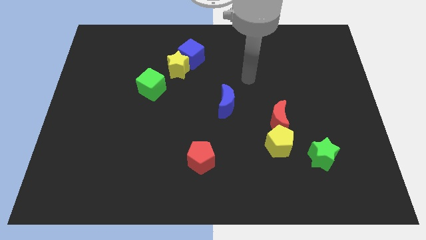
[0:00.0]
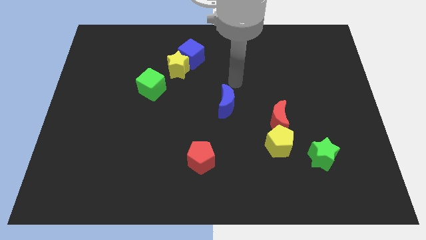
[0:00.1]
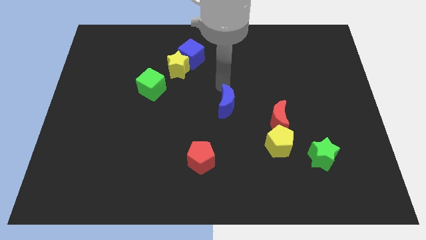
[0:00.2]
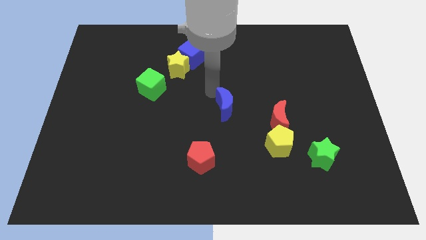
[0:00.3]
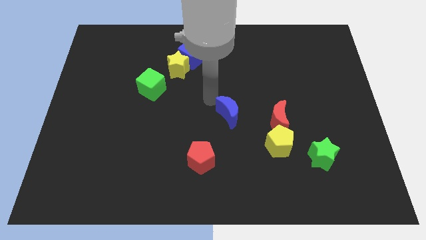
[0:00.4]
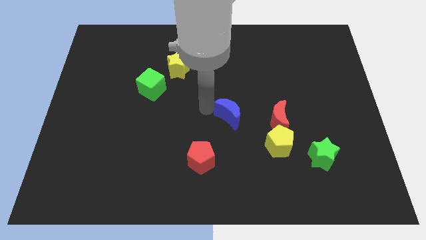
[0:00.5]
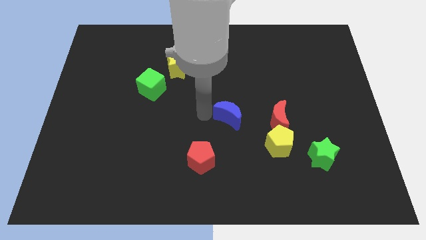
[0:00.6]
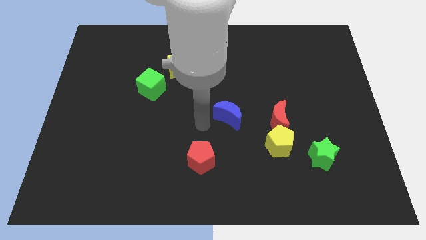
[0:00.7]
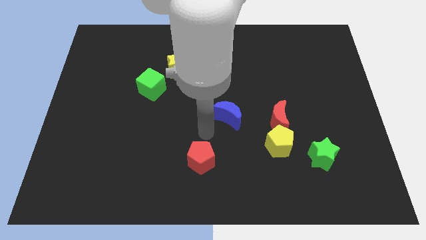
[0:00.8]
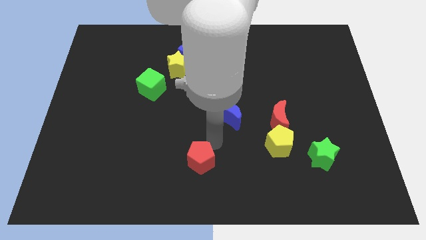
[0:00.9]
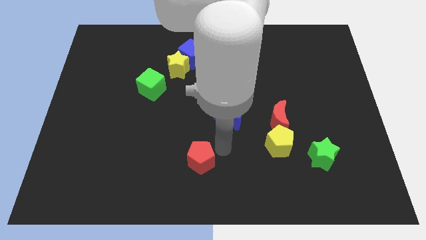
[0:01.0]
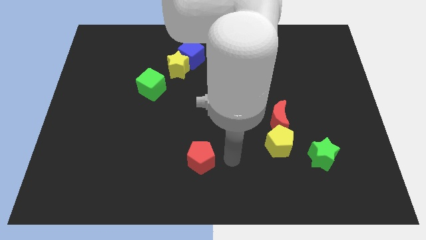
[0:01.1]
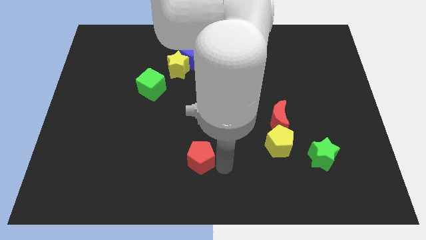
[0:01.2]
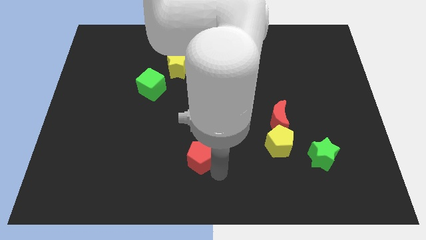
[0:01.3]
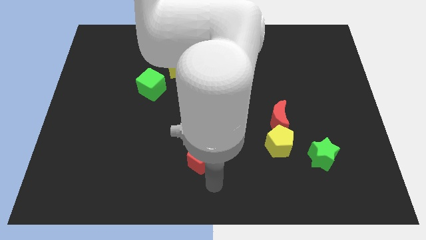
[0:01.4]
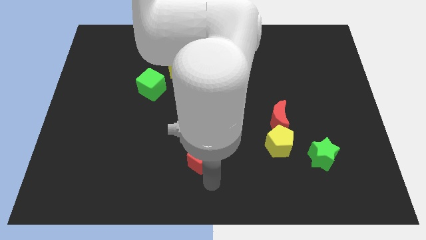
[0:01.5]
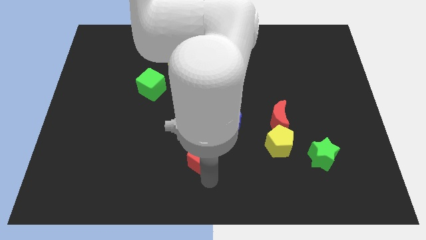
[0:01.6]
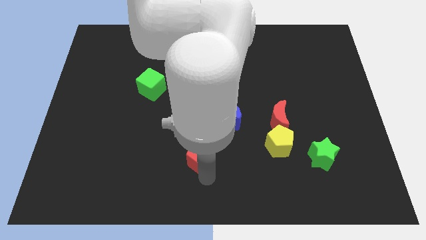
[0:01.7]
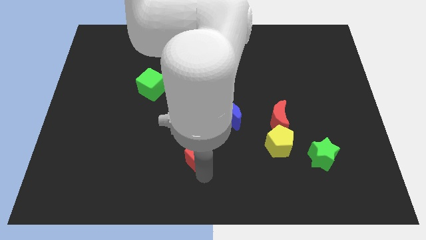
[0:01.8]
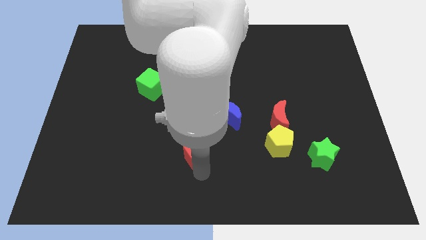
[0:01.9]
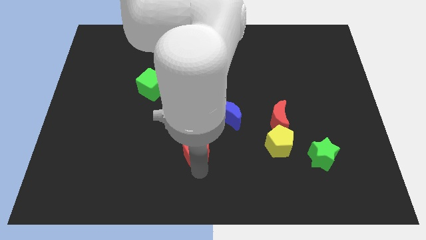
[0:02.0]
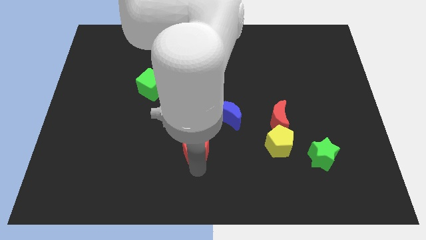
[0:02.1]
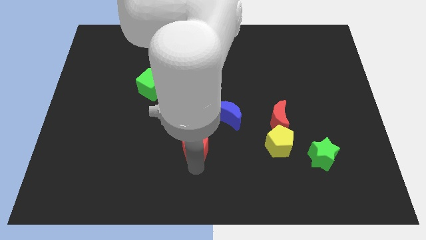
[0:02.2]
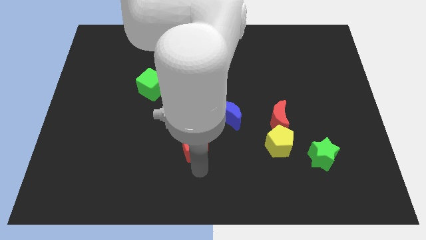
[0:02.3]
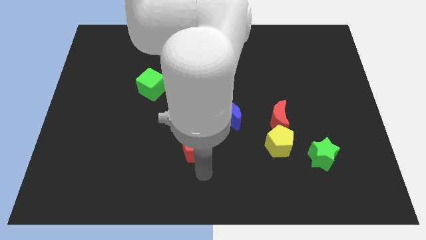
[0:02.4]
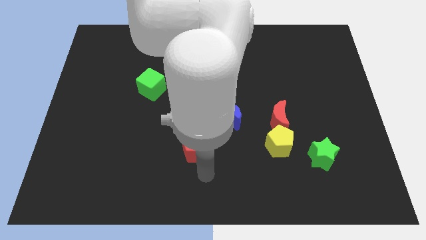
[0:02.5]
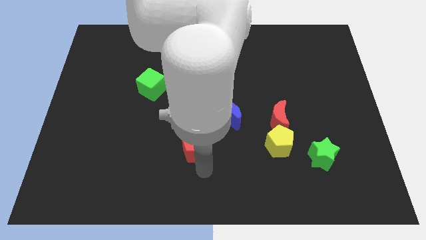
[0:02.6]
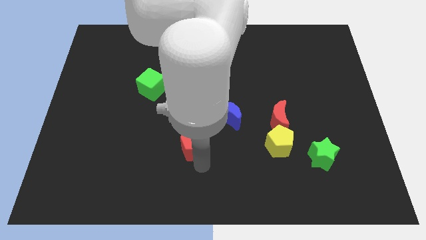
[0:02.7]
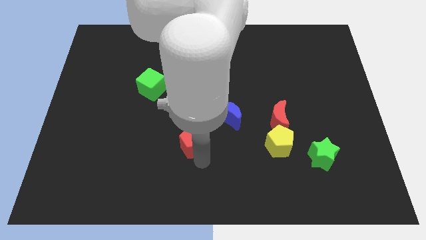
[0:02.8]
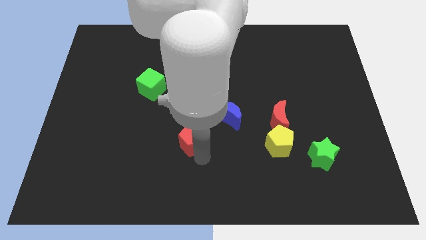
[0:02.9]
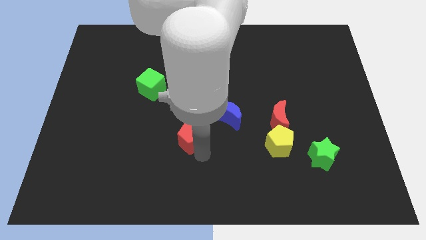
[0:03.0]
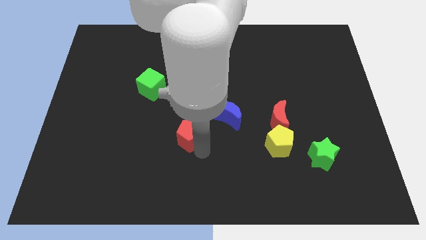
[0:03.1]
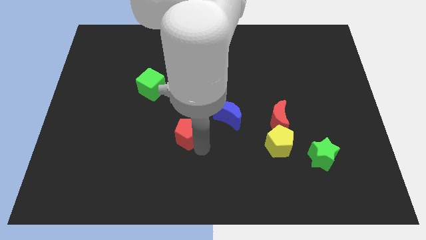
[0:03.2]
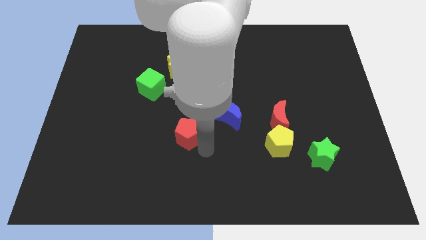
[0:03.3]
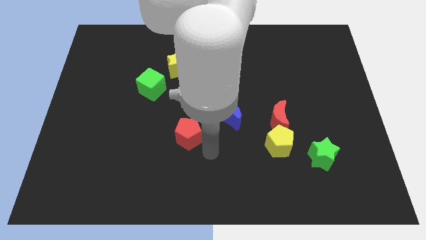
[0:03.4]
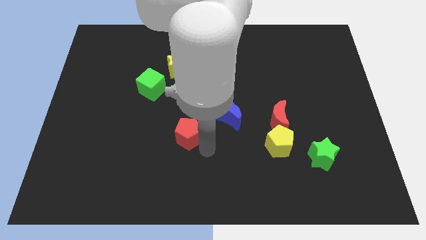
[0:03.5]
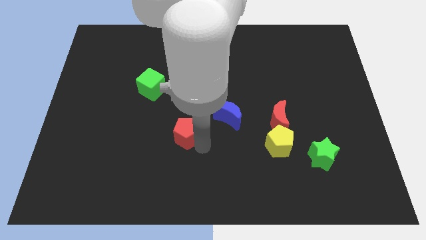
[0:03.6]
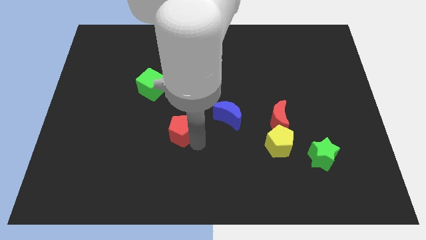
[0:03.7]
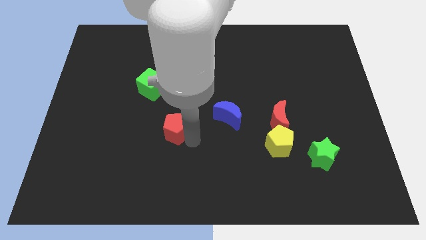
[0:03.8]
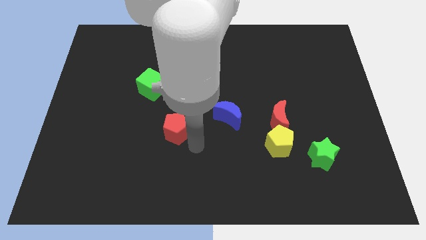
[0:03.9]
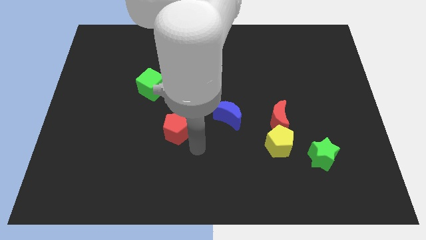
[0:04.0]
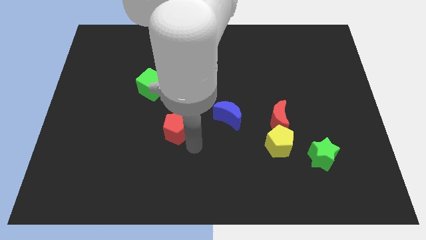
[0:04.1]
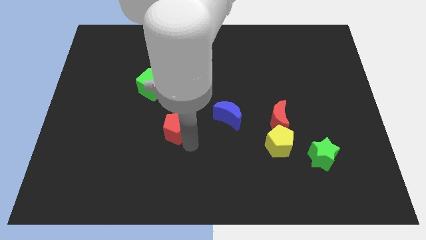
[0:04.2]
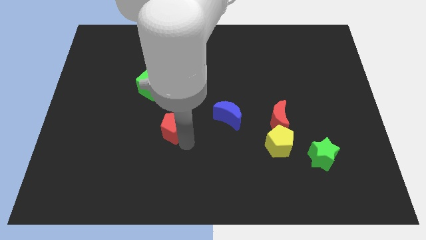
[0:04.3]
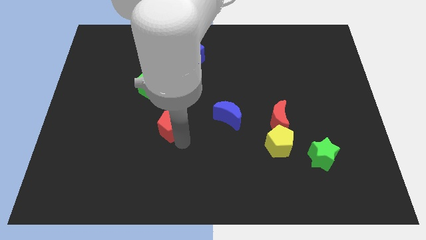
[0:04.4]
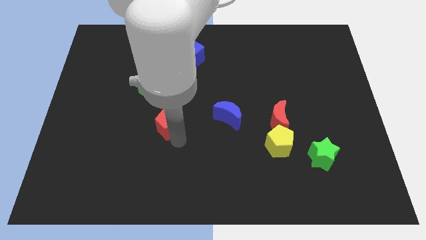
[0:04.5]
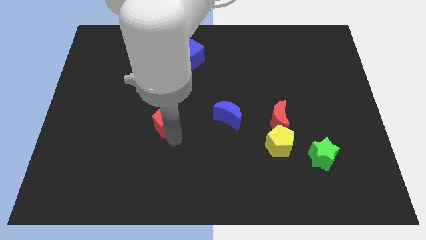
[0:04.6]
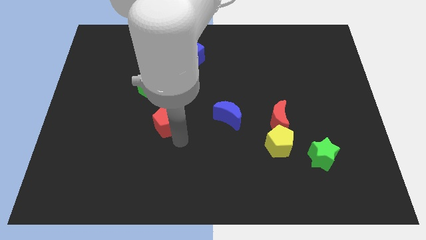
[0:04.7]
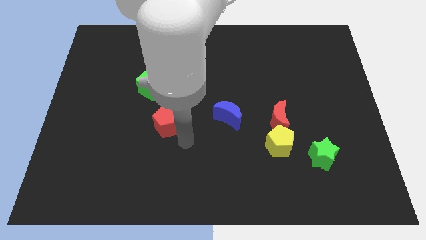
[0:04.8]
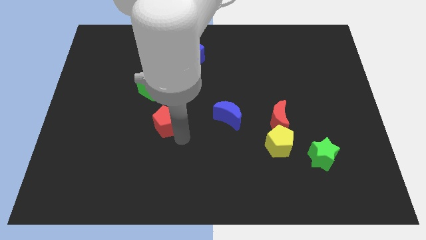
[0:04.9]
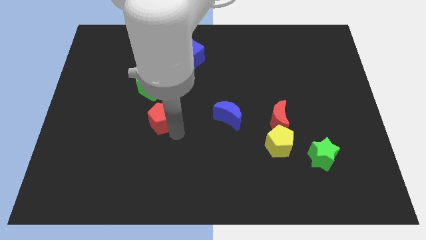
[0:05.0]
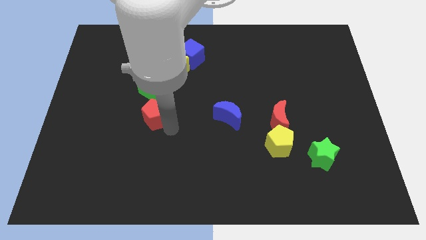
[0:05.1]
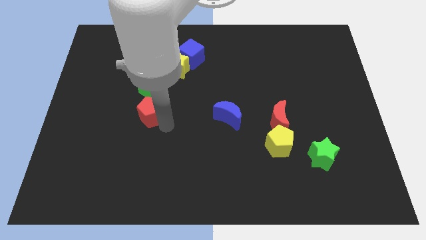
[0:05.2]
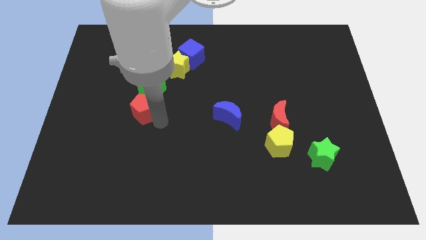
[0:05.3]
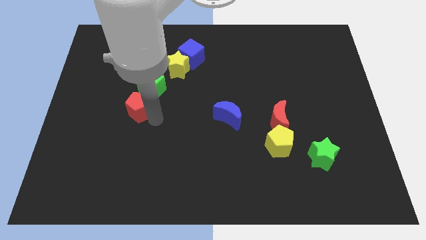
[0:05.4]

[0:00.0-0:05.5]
push the red pentagon up and then to the left

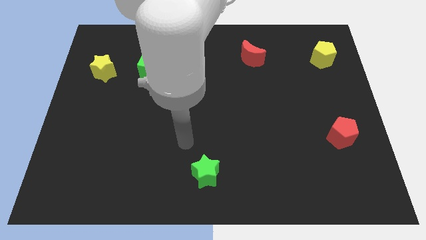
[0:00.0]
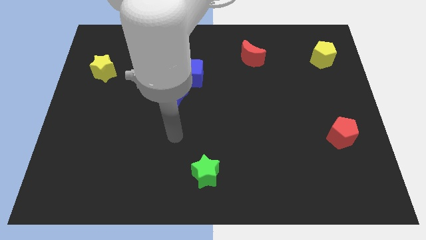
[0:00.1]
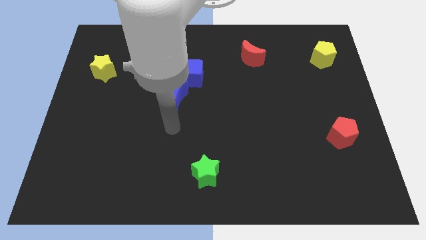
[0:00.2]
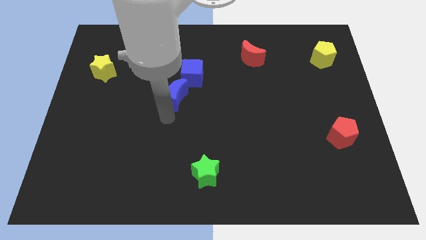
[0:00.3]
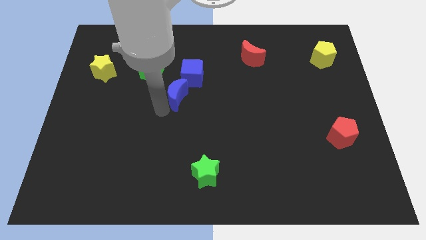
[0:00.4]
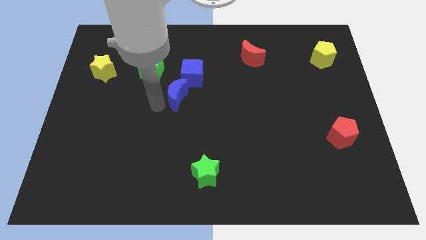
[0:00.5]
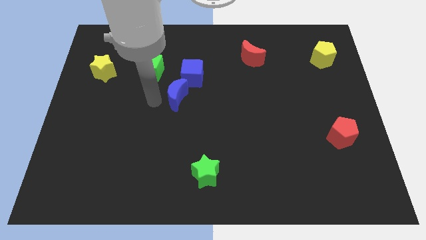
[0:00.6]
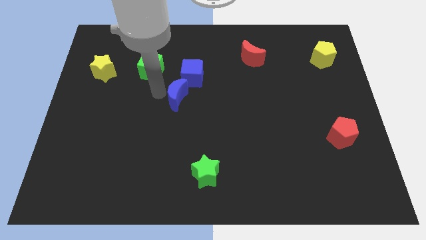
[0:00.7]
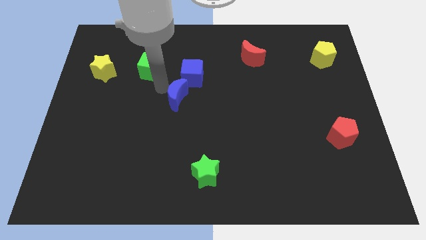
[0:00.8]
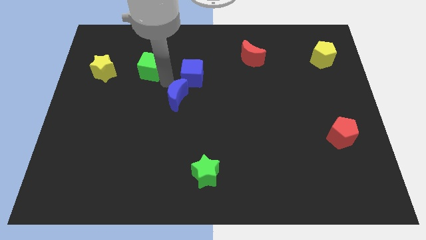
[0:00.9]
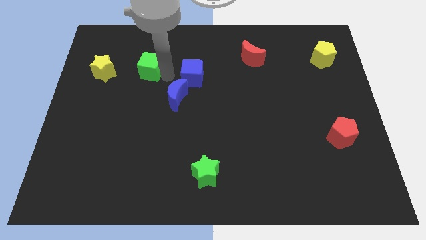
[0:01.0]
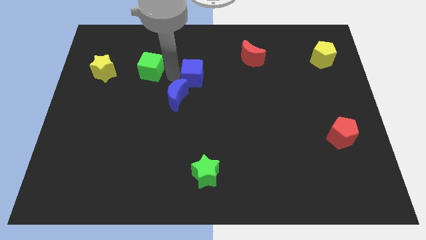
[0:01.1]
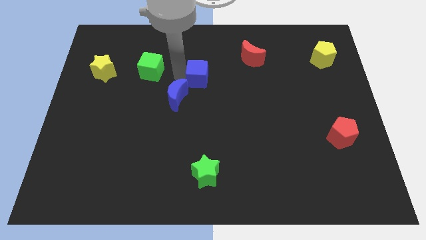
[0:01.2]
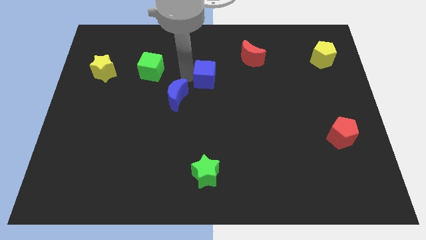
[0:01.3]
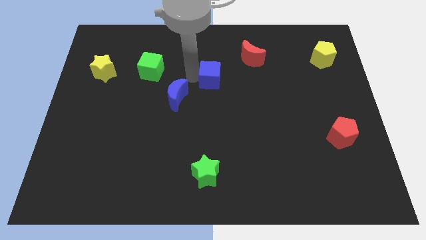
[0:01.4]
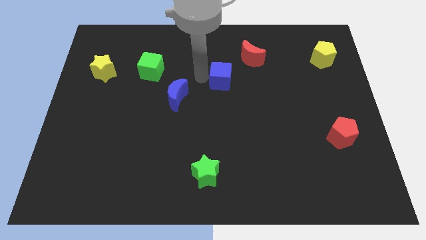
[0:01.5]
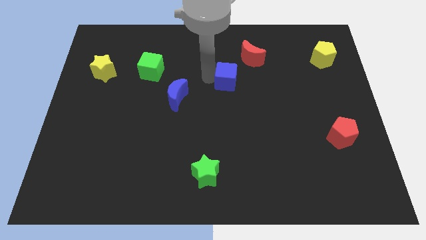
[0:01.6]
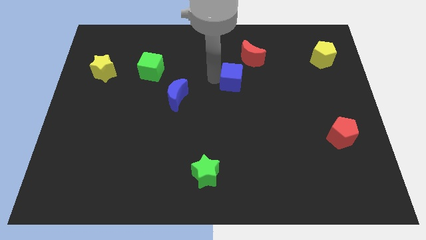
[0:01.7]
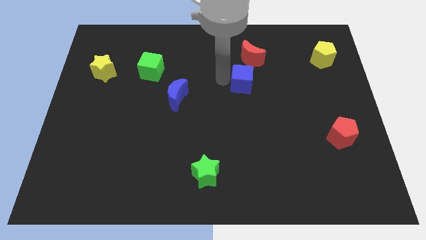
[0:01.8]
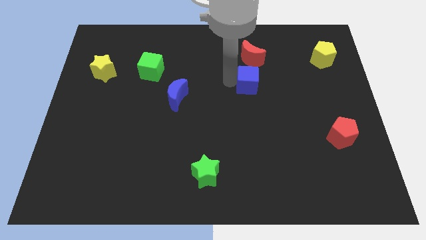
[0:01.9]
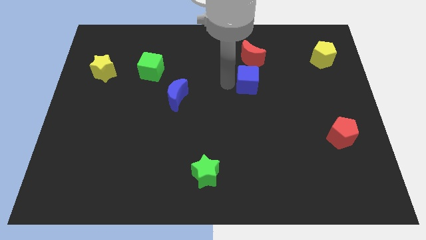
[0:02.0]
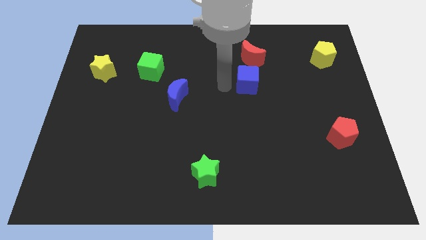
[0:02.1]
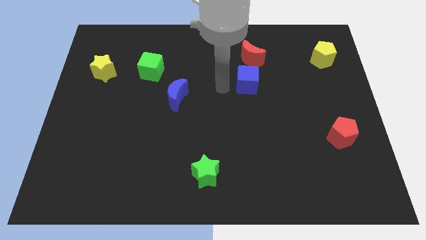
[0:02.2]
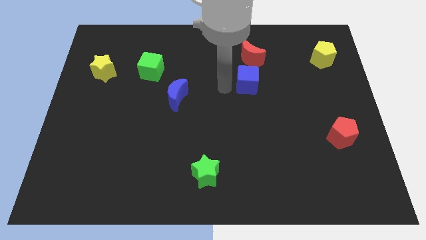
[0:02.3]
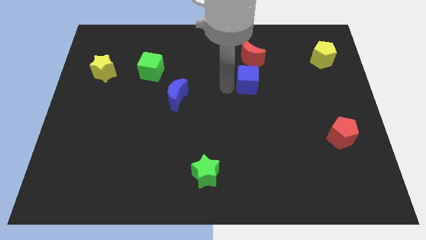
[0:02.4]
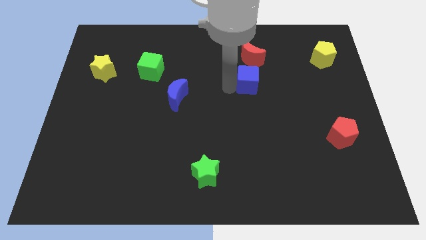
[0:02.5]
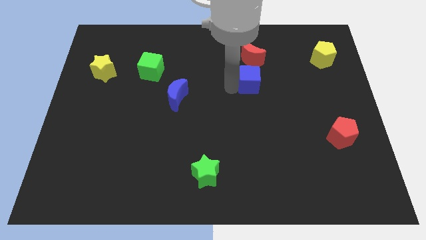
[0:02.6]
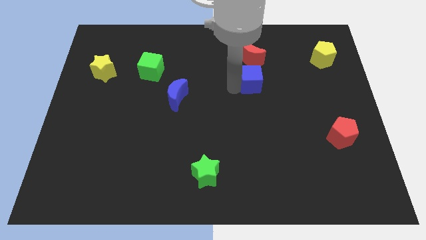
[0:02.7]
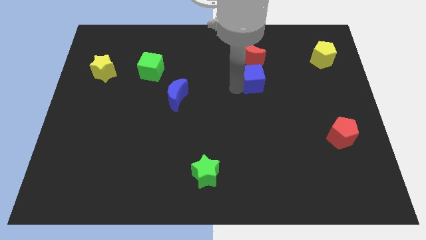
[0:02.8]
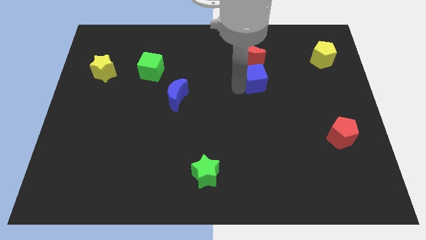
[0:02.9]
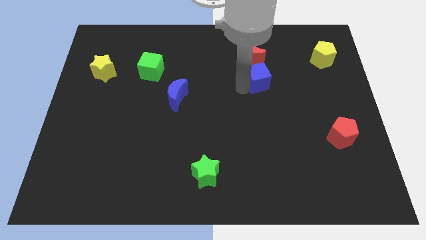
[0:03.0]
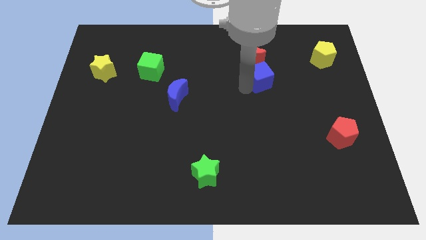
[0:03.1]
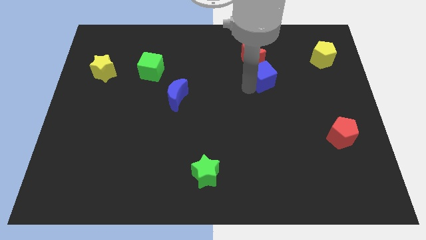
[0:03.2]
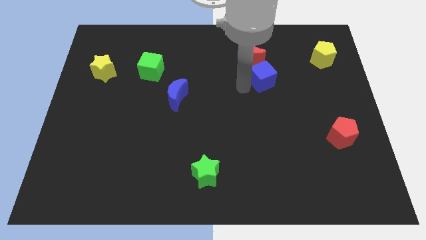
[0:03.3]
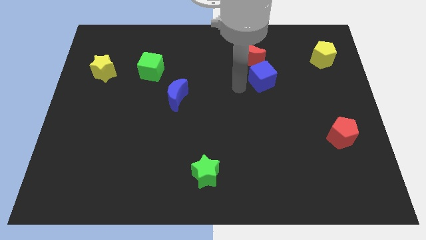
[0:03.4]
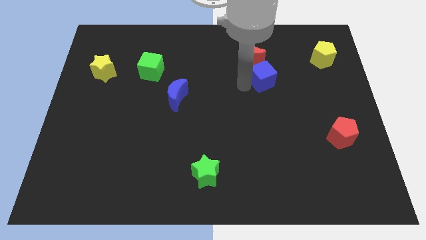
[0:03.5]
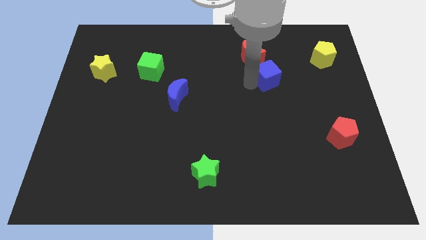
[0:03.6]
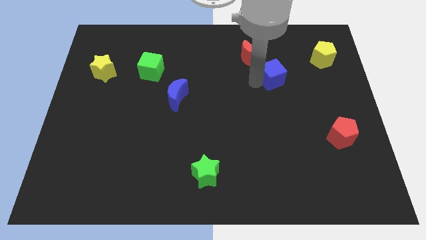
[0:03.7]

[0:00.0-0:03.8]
slide the blue cube right
